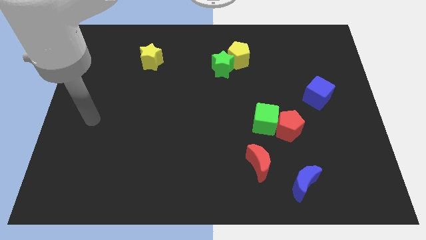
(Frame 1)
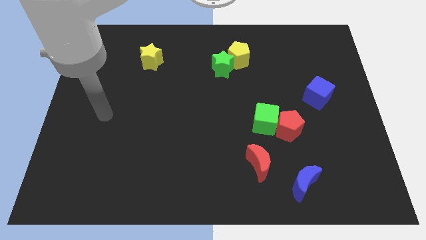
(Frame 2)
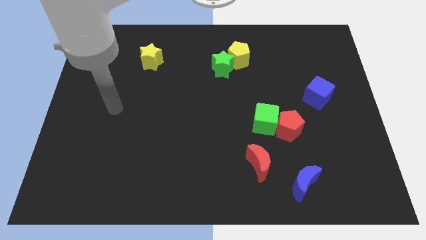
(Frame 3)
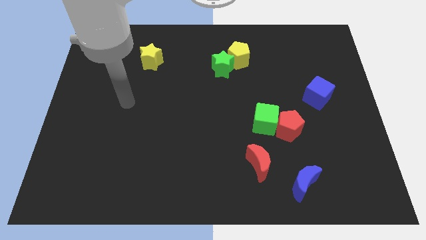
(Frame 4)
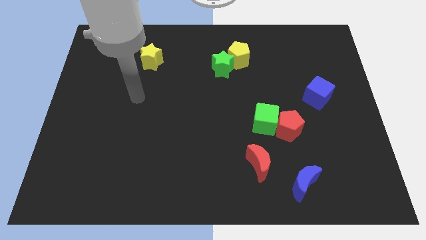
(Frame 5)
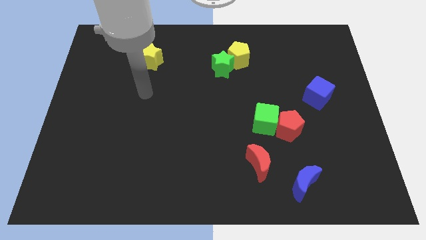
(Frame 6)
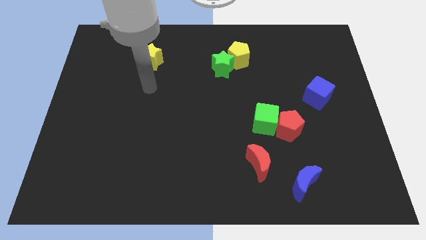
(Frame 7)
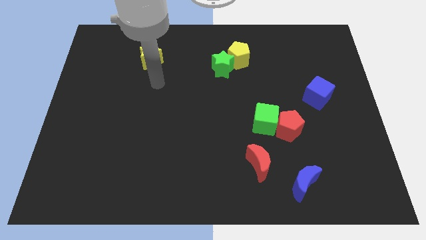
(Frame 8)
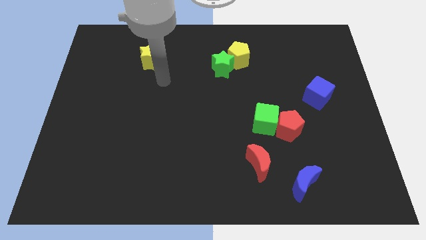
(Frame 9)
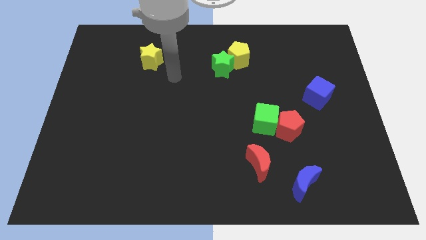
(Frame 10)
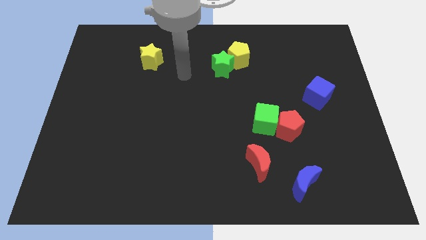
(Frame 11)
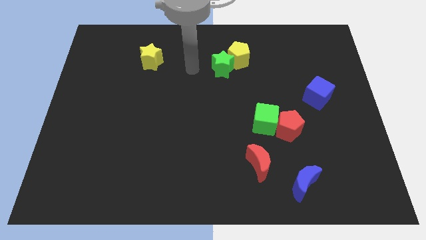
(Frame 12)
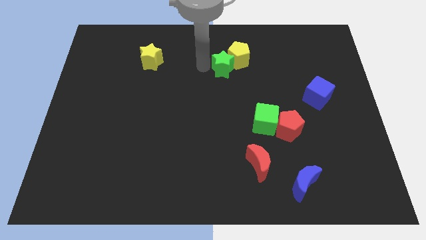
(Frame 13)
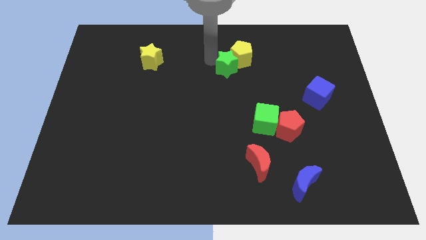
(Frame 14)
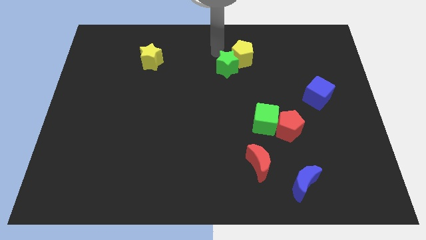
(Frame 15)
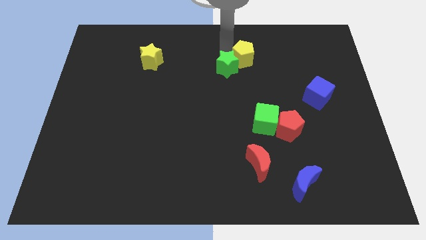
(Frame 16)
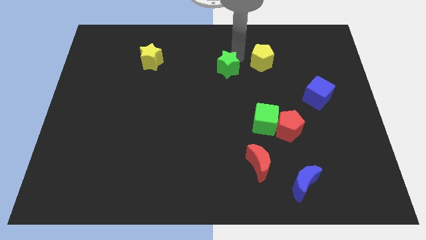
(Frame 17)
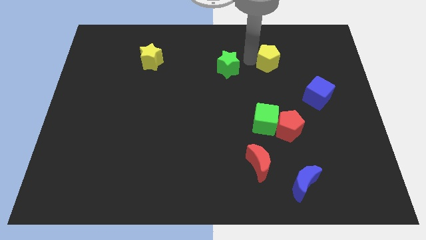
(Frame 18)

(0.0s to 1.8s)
move the green star away from the yellow pentagon

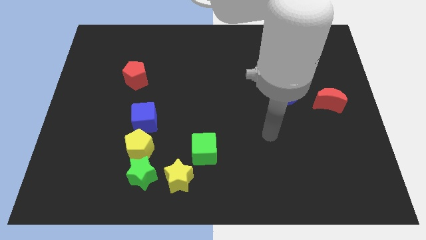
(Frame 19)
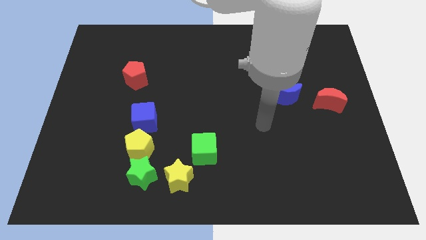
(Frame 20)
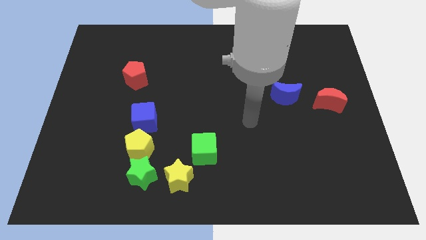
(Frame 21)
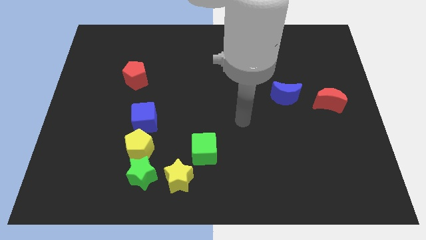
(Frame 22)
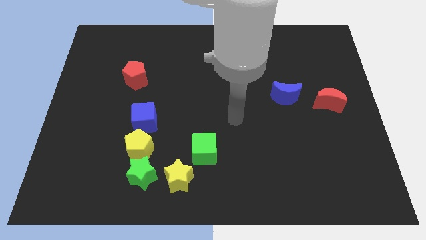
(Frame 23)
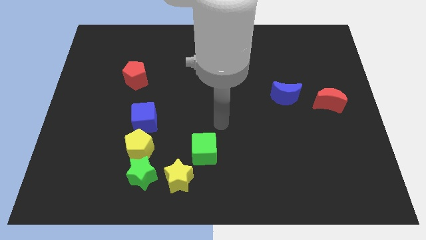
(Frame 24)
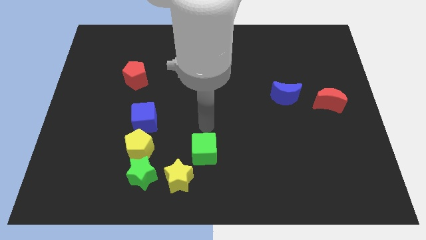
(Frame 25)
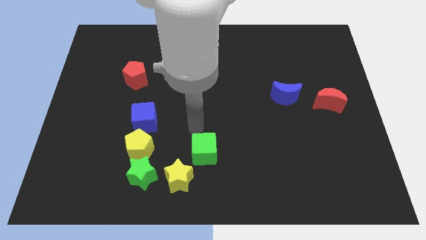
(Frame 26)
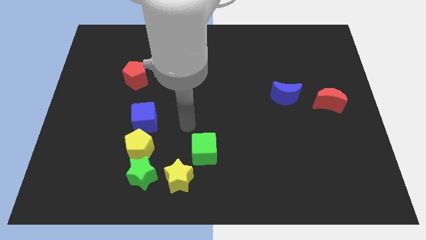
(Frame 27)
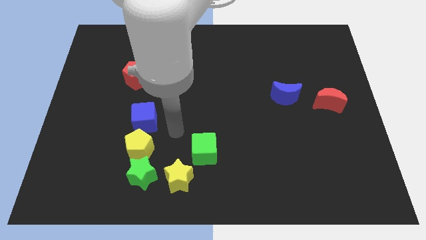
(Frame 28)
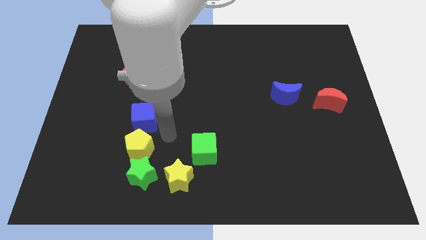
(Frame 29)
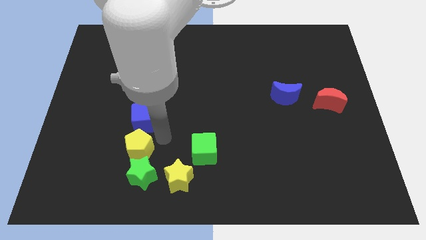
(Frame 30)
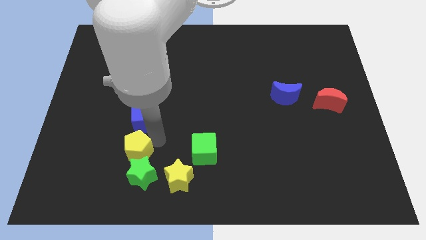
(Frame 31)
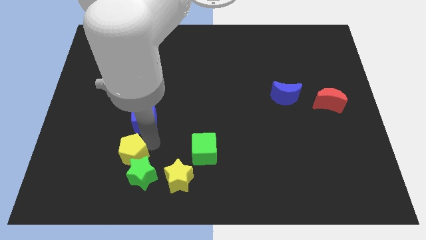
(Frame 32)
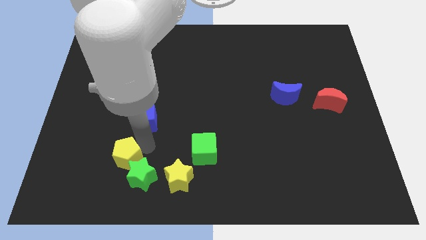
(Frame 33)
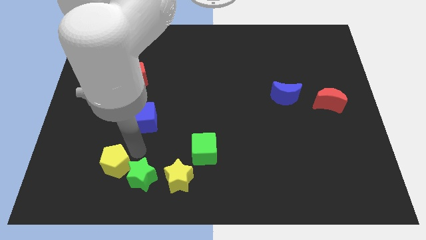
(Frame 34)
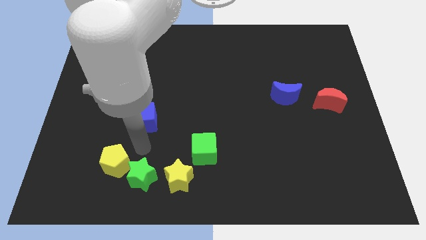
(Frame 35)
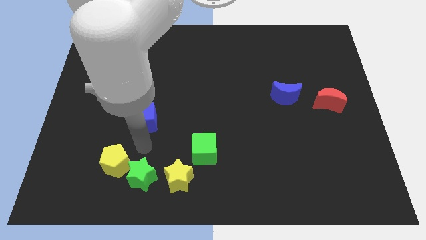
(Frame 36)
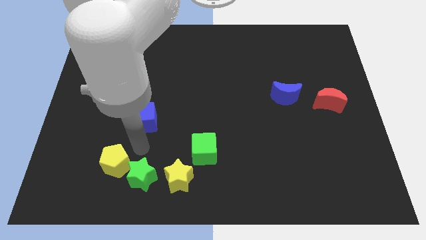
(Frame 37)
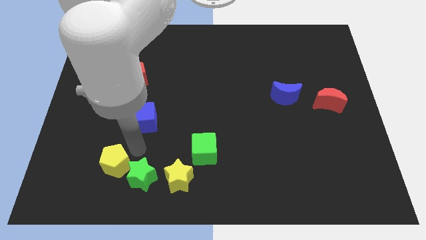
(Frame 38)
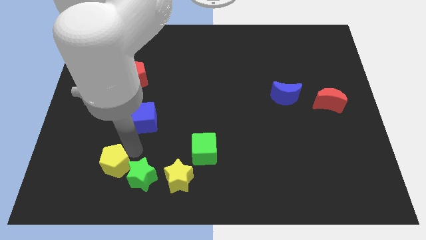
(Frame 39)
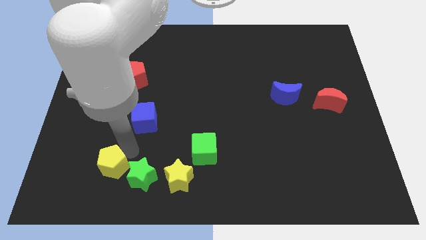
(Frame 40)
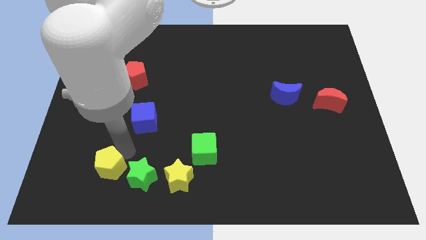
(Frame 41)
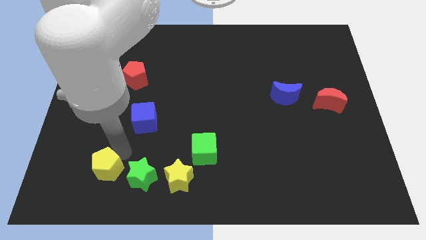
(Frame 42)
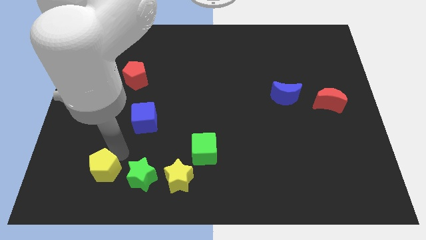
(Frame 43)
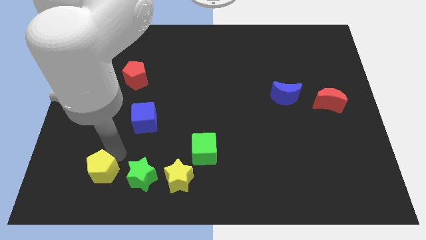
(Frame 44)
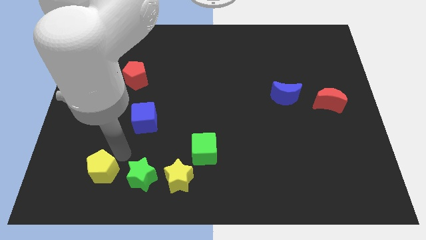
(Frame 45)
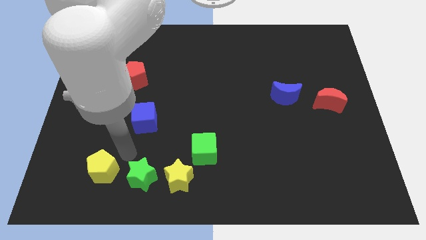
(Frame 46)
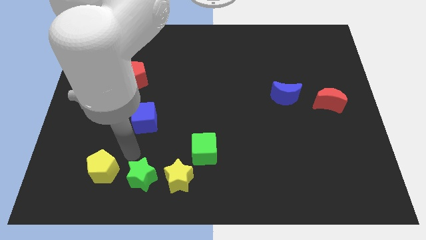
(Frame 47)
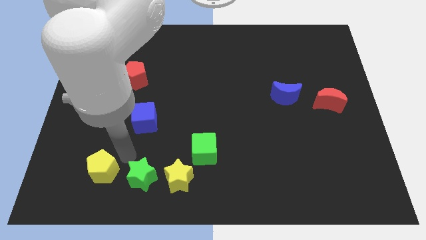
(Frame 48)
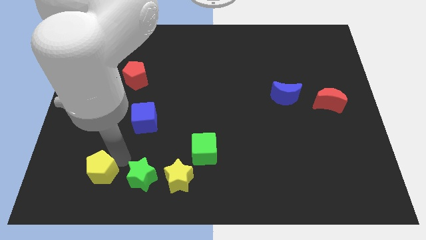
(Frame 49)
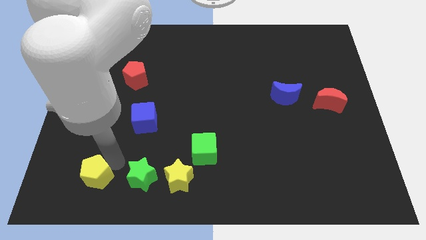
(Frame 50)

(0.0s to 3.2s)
pull the yellow pentagon apart from the green star and blue cube

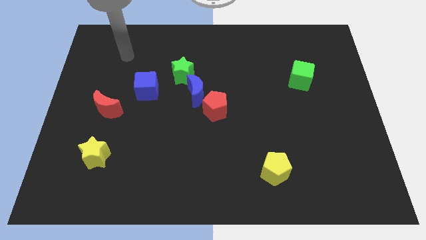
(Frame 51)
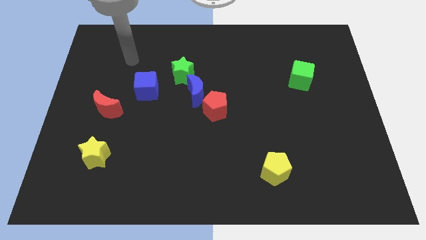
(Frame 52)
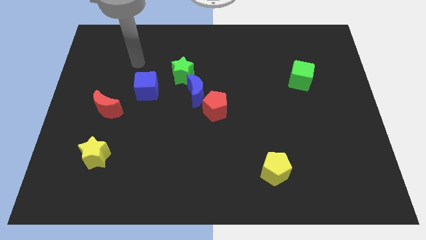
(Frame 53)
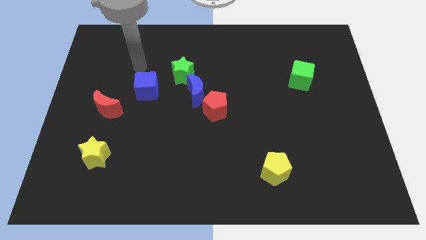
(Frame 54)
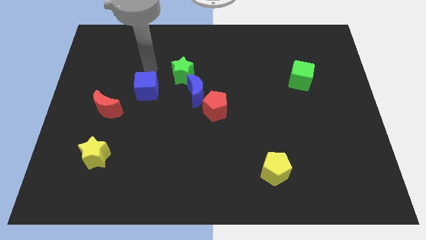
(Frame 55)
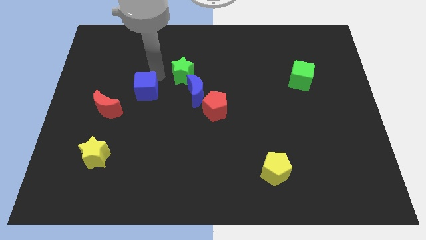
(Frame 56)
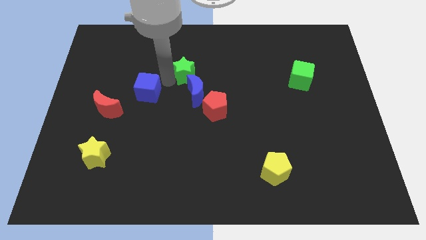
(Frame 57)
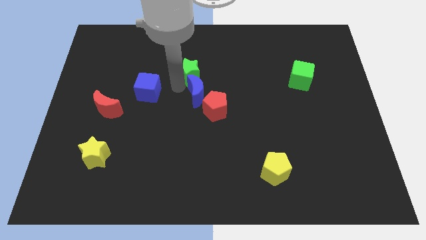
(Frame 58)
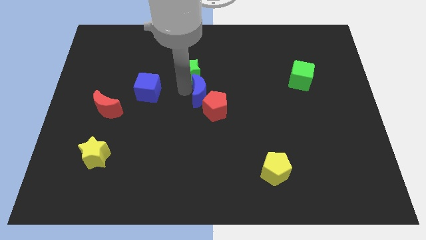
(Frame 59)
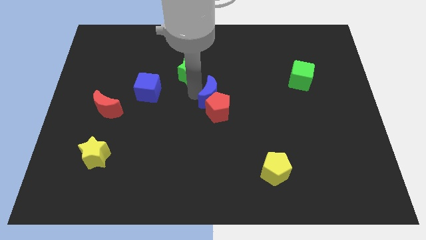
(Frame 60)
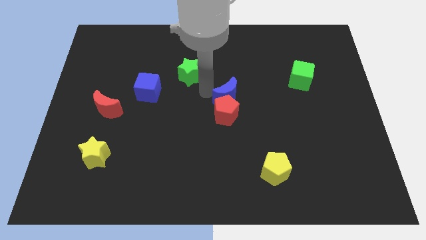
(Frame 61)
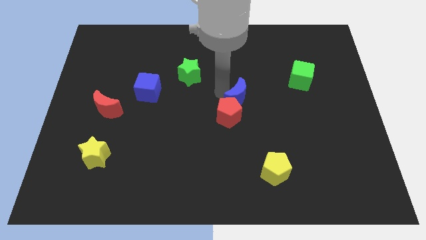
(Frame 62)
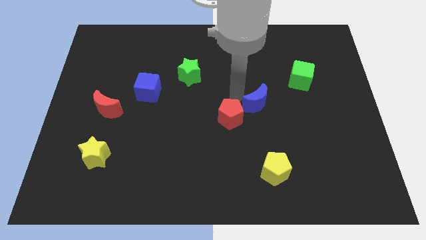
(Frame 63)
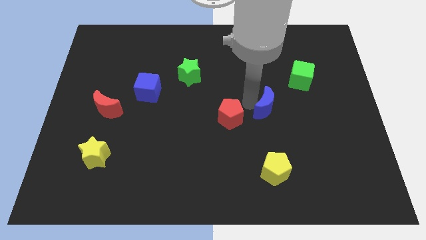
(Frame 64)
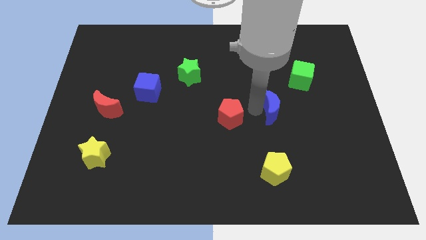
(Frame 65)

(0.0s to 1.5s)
move the red pentagon away from the blue moon

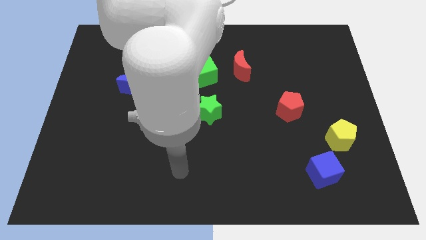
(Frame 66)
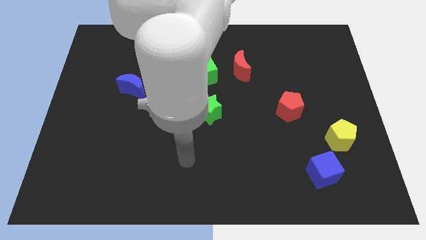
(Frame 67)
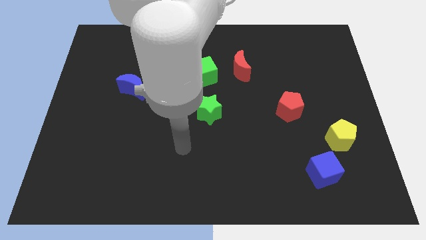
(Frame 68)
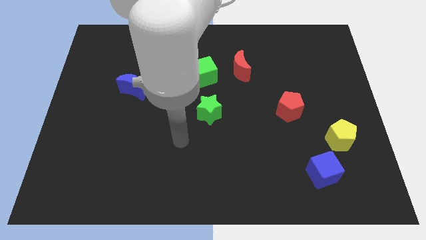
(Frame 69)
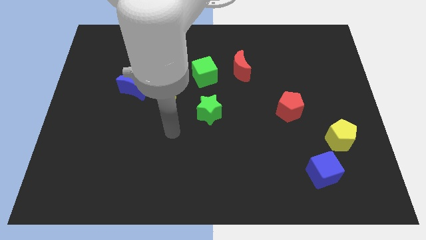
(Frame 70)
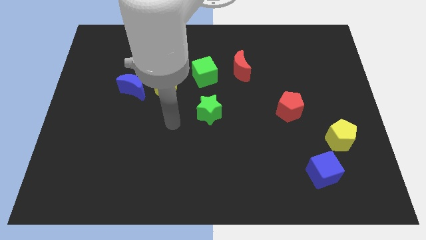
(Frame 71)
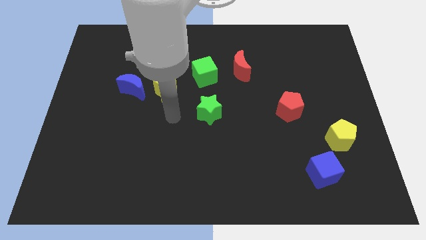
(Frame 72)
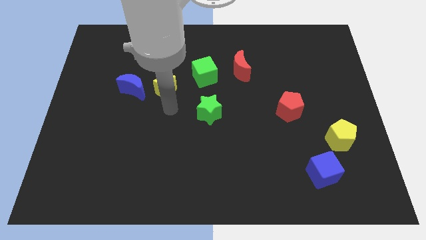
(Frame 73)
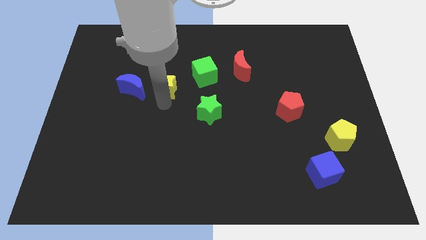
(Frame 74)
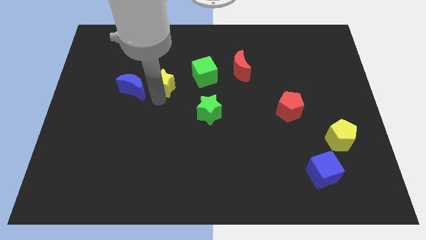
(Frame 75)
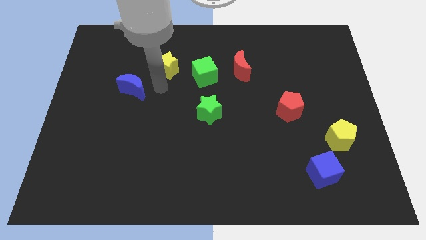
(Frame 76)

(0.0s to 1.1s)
separate the blue moon from the yellow star

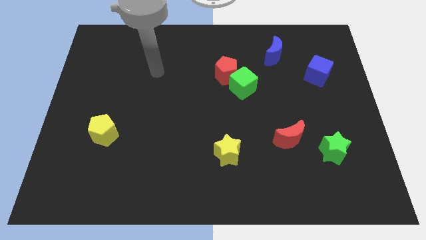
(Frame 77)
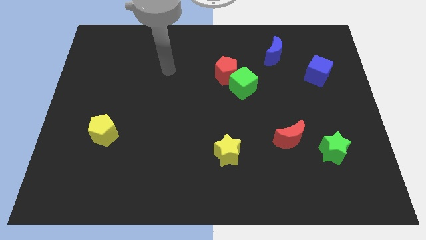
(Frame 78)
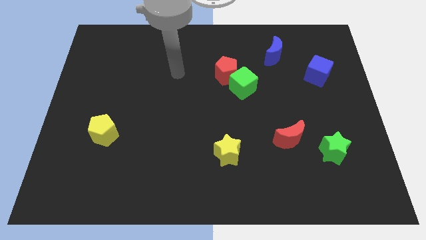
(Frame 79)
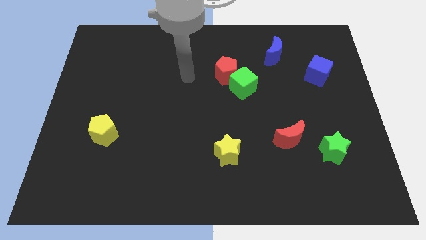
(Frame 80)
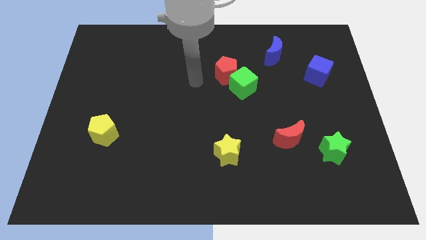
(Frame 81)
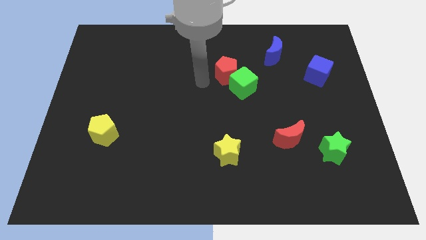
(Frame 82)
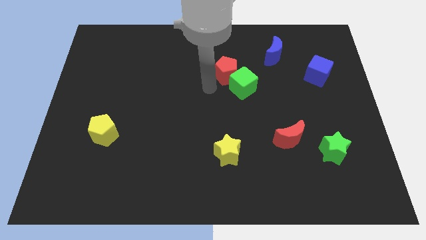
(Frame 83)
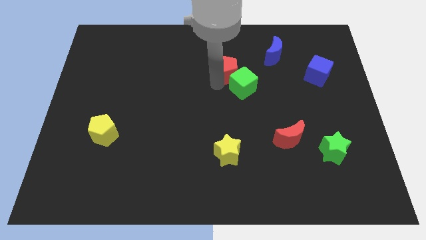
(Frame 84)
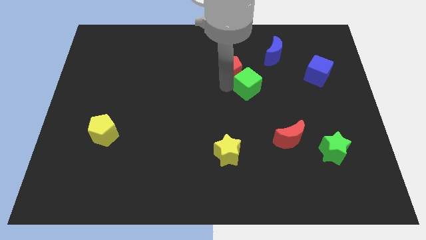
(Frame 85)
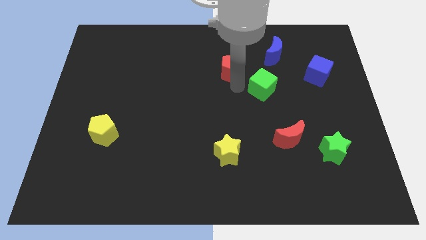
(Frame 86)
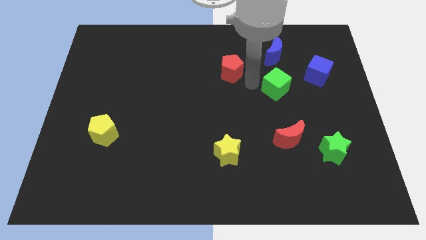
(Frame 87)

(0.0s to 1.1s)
move the red pentagon away from the green cube

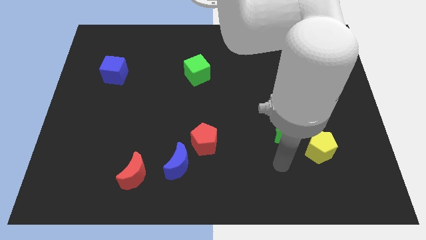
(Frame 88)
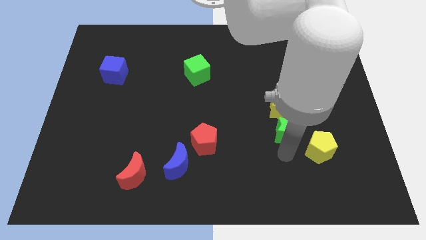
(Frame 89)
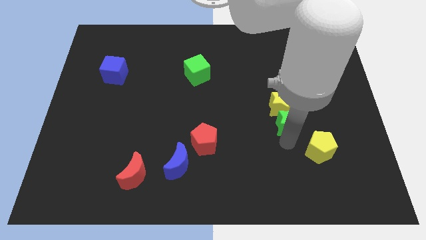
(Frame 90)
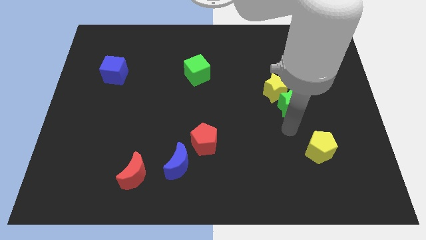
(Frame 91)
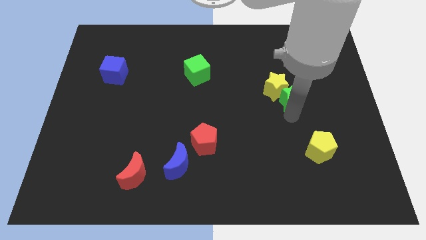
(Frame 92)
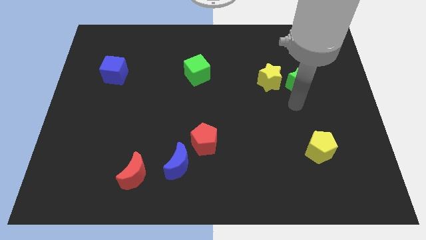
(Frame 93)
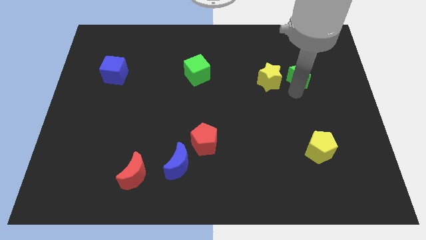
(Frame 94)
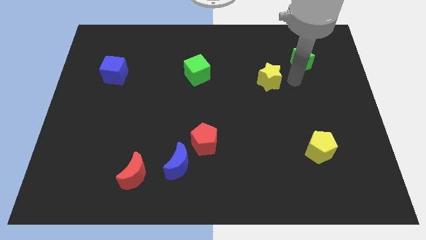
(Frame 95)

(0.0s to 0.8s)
pull the yellow star apart from the green star
